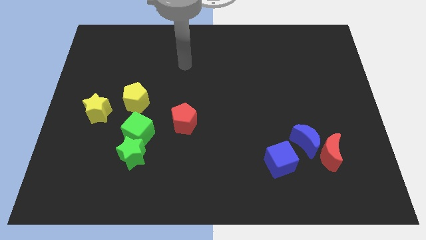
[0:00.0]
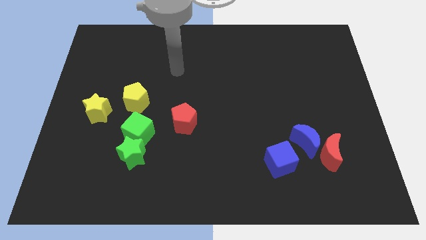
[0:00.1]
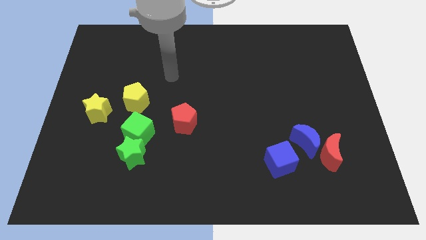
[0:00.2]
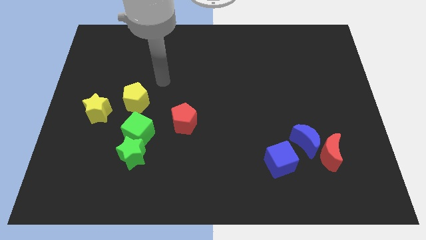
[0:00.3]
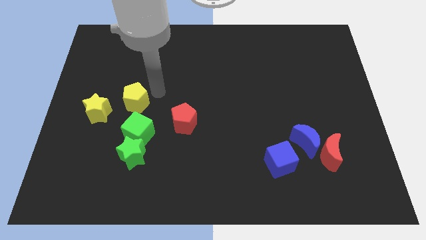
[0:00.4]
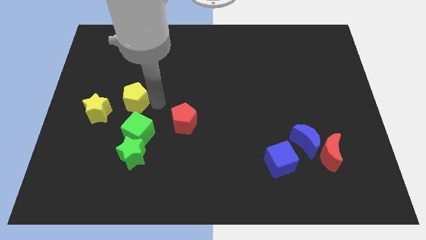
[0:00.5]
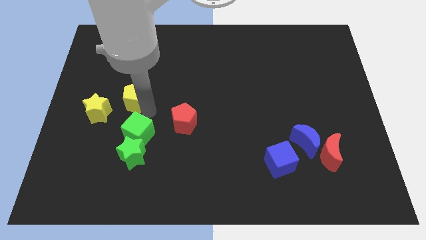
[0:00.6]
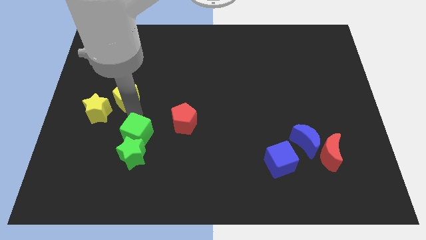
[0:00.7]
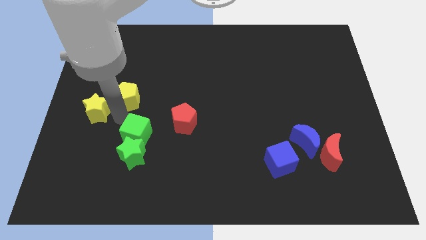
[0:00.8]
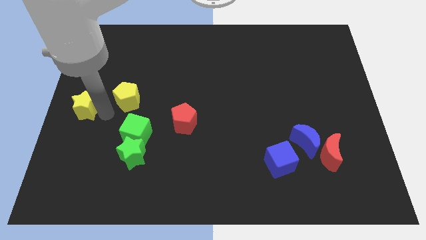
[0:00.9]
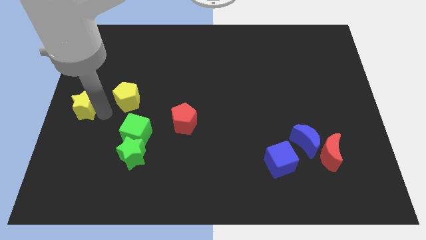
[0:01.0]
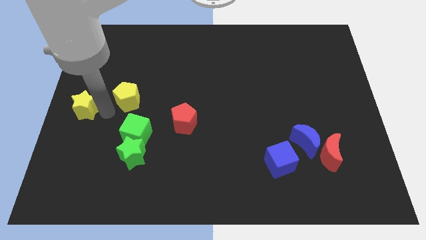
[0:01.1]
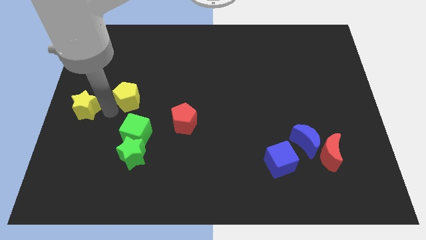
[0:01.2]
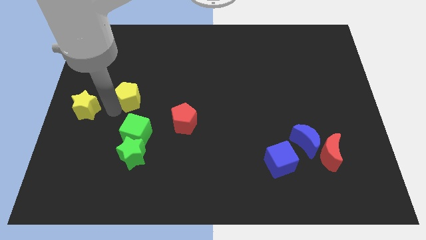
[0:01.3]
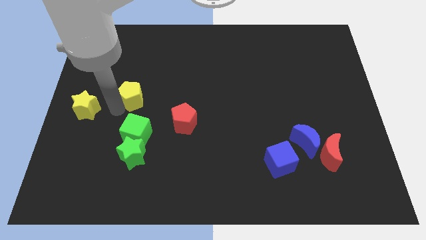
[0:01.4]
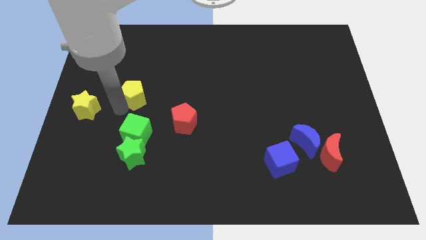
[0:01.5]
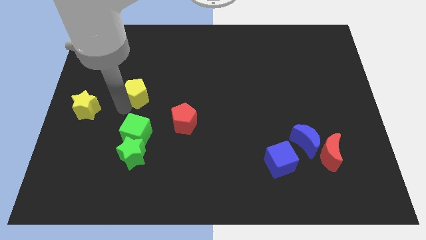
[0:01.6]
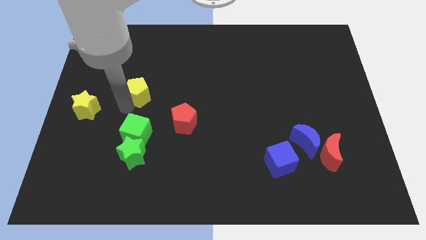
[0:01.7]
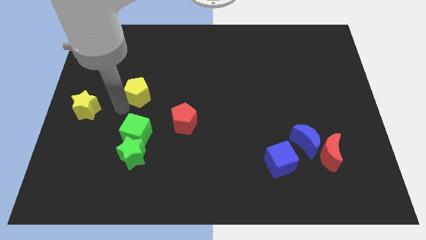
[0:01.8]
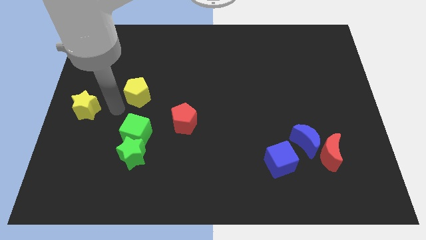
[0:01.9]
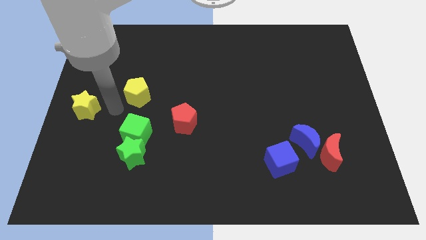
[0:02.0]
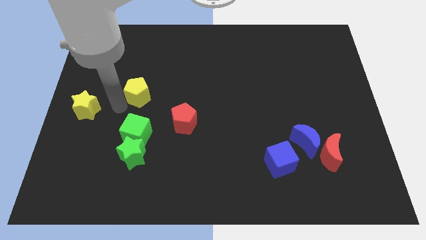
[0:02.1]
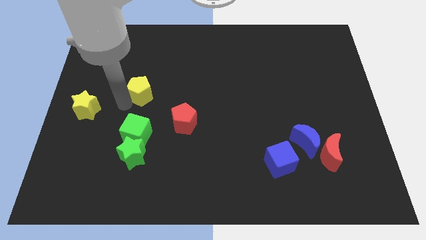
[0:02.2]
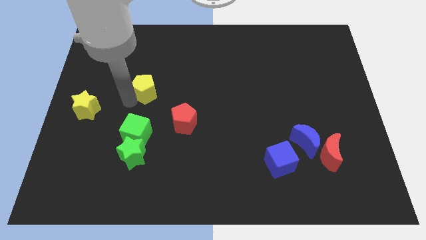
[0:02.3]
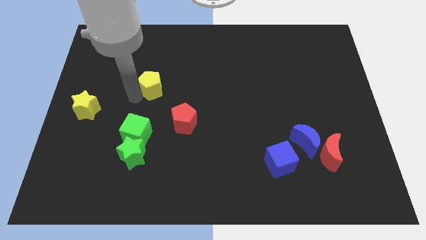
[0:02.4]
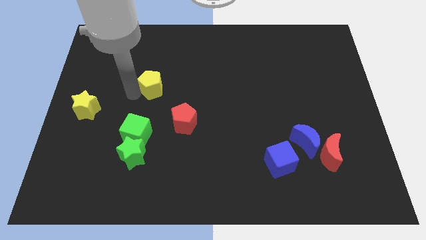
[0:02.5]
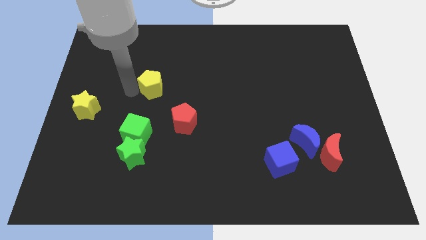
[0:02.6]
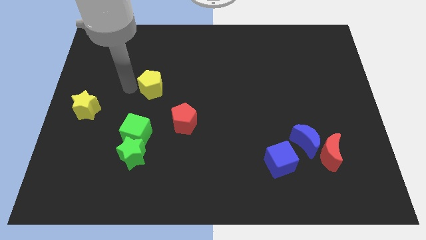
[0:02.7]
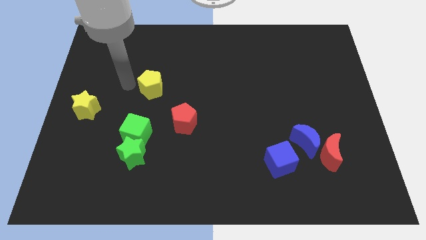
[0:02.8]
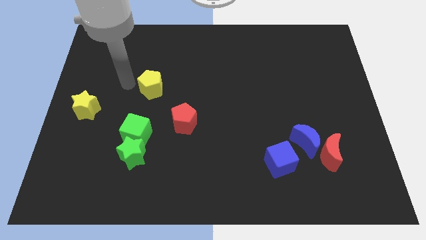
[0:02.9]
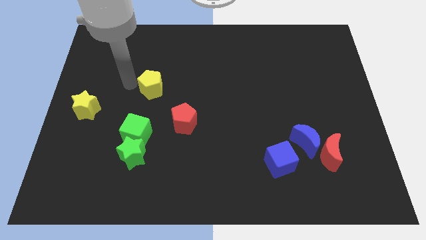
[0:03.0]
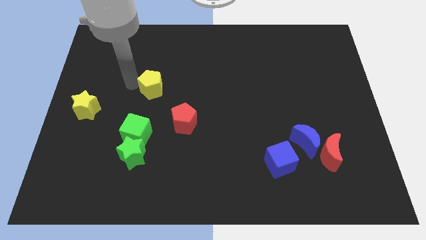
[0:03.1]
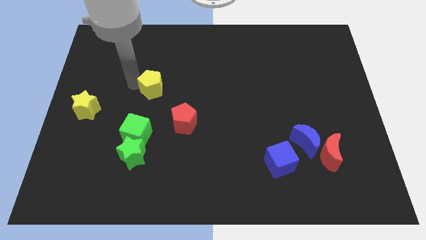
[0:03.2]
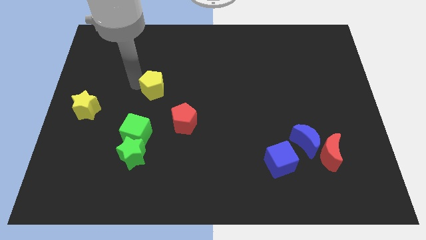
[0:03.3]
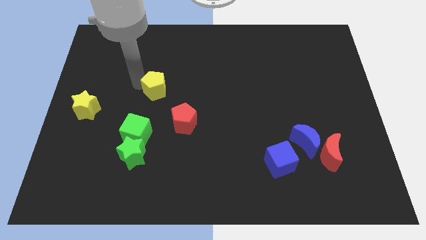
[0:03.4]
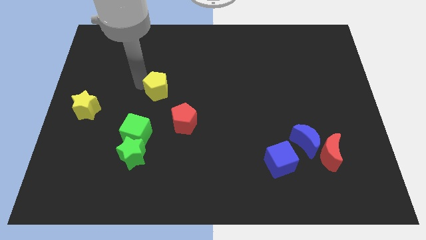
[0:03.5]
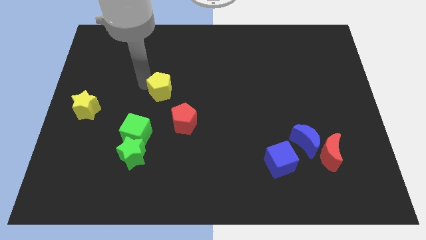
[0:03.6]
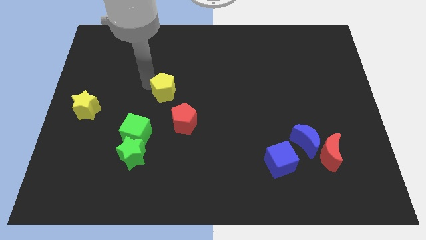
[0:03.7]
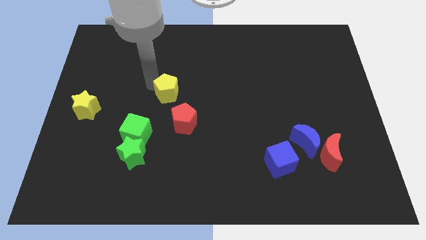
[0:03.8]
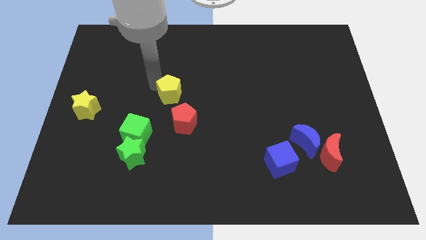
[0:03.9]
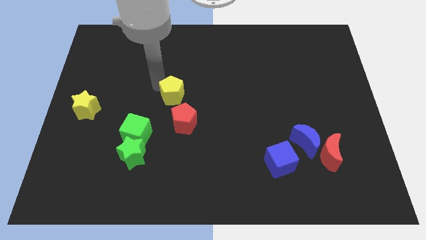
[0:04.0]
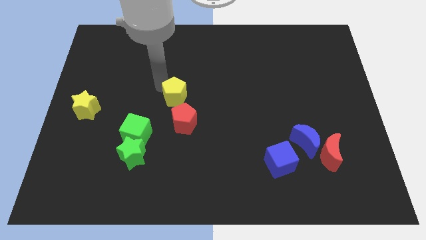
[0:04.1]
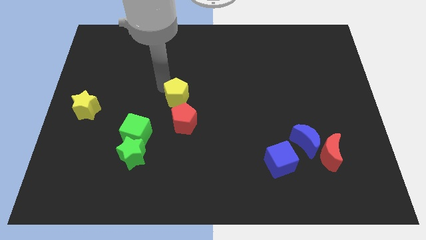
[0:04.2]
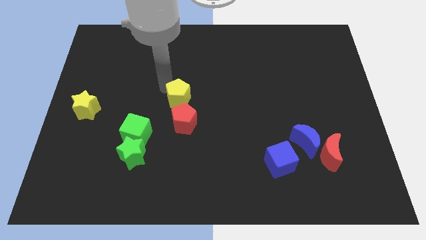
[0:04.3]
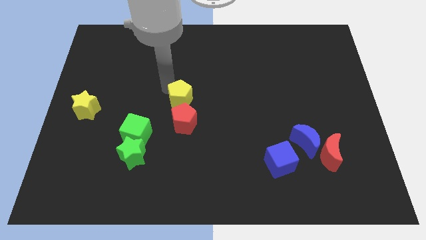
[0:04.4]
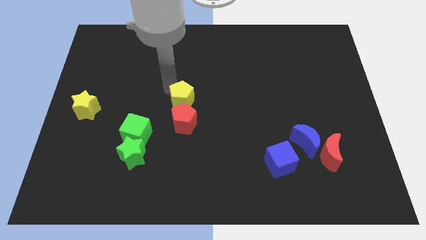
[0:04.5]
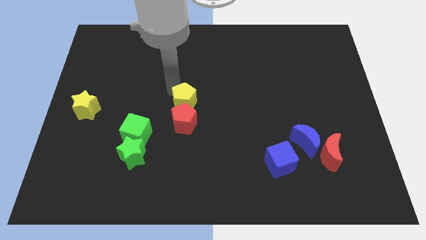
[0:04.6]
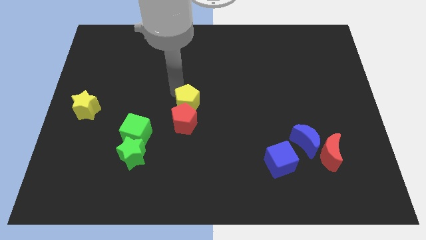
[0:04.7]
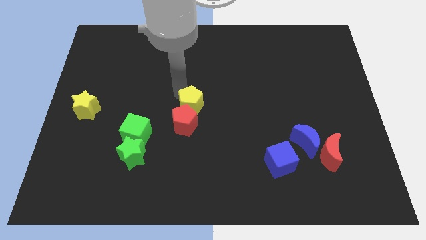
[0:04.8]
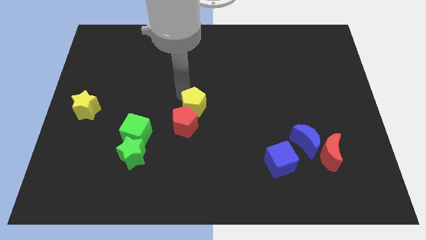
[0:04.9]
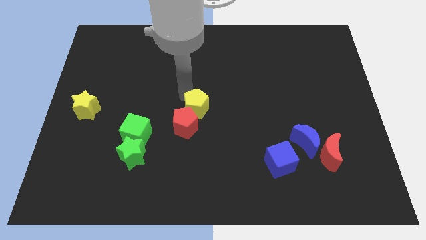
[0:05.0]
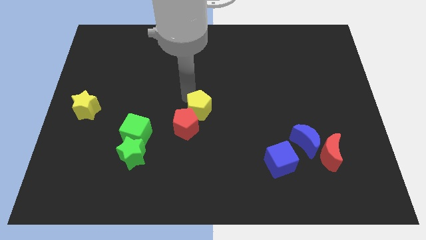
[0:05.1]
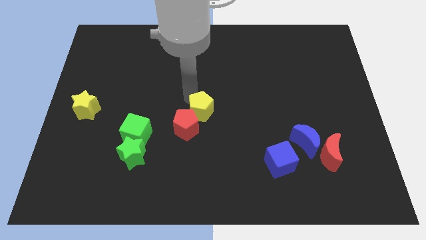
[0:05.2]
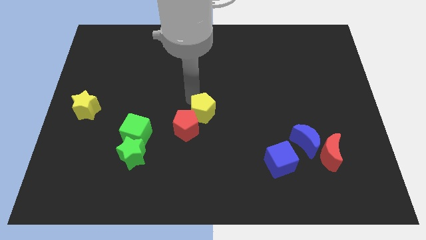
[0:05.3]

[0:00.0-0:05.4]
push the yellow pentagon to the right of the red pentagon

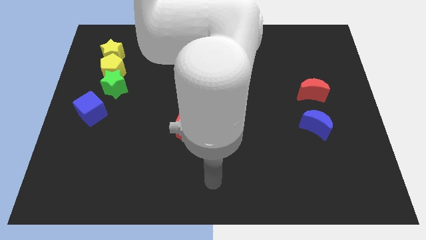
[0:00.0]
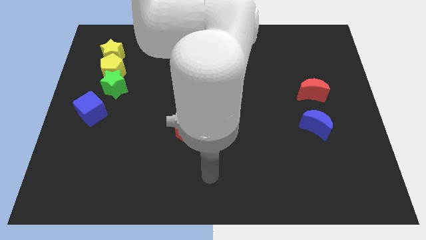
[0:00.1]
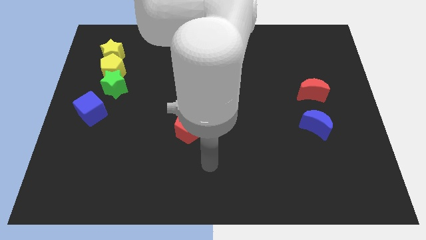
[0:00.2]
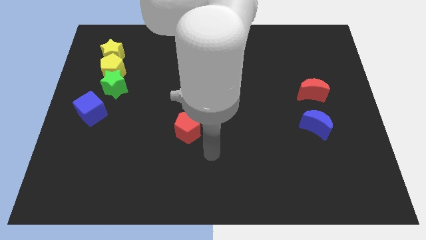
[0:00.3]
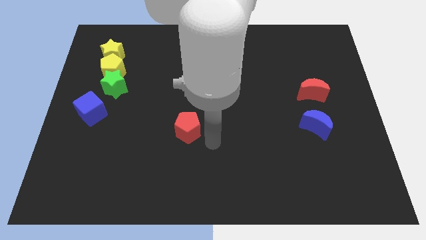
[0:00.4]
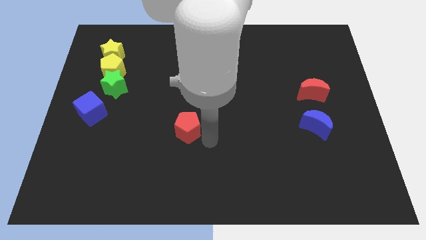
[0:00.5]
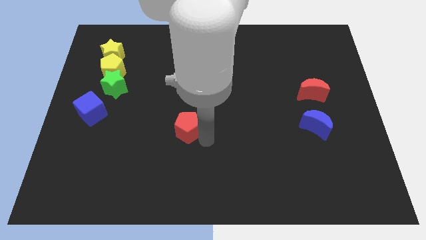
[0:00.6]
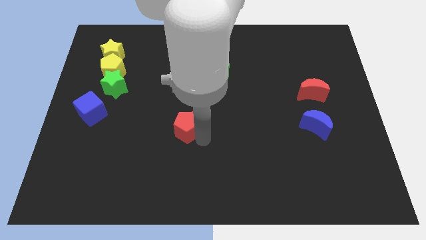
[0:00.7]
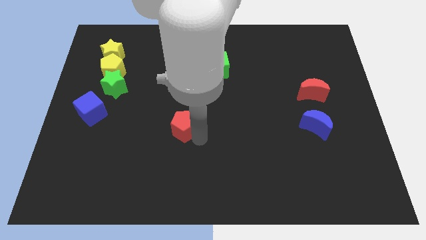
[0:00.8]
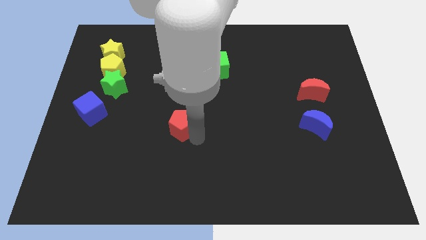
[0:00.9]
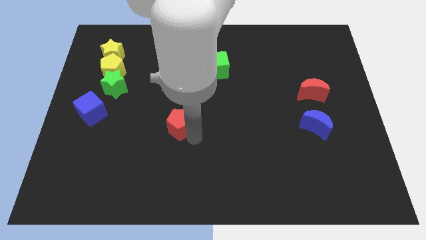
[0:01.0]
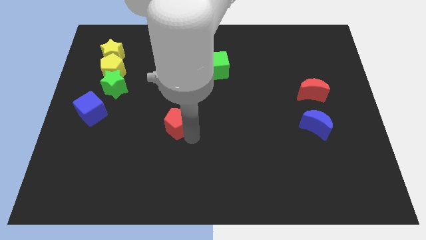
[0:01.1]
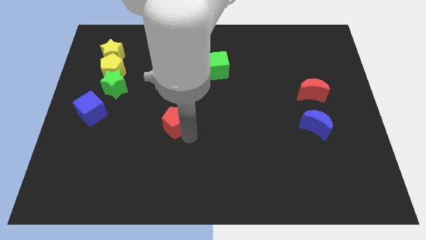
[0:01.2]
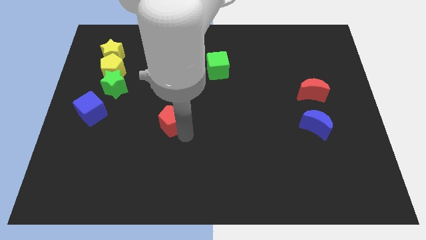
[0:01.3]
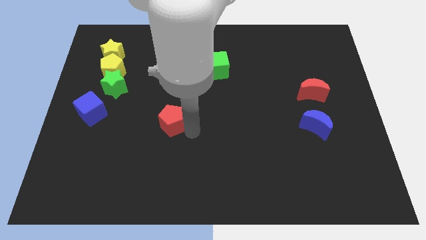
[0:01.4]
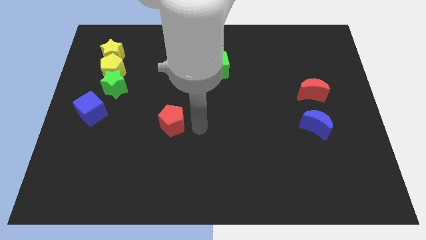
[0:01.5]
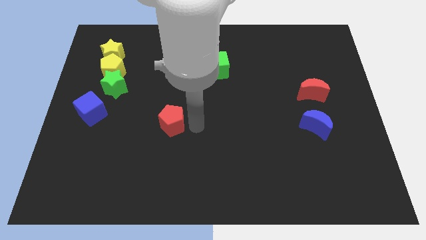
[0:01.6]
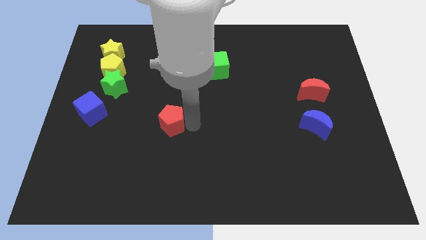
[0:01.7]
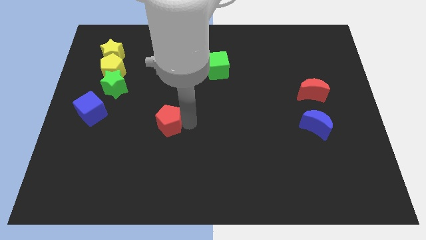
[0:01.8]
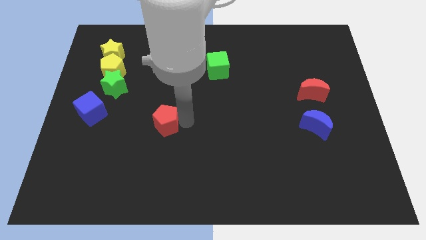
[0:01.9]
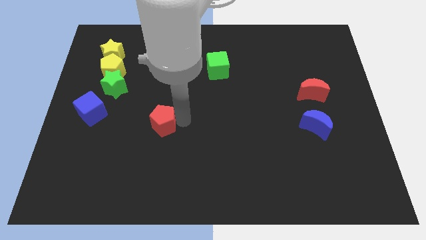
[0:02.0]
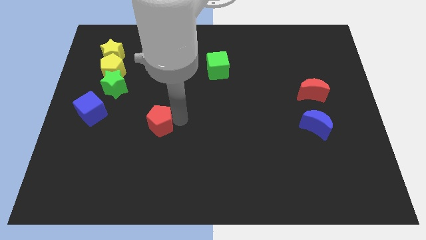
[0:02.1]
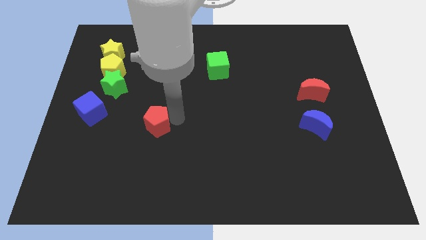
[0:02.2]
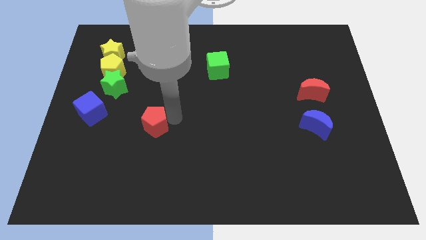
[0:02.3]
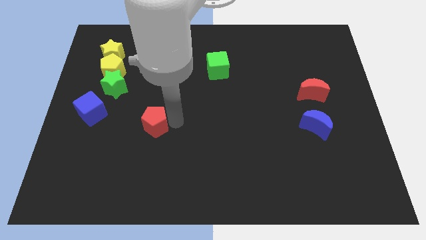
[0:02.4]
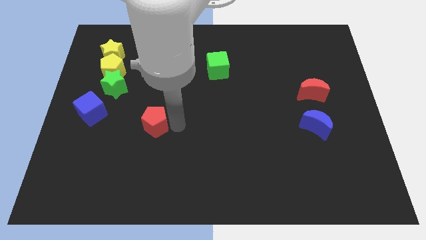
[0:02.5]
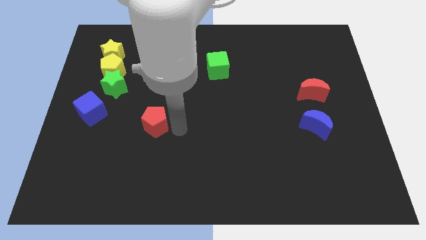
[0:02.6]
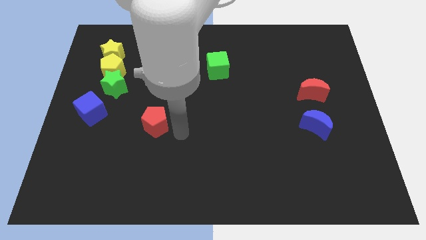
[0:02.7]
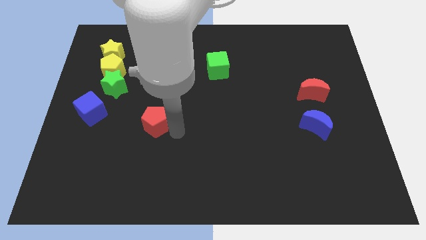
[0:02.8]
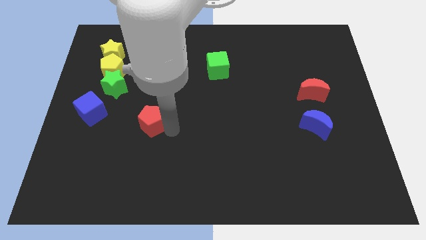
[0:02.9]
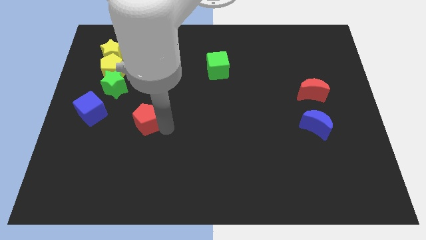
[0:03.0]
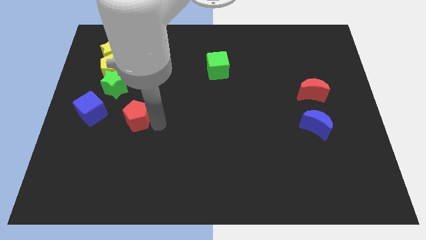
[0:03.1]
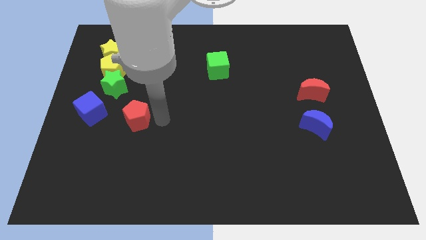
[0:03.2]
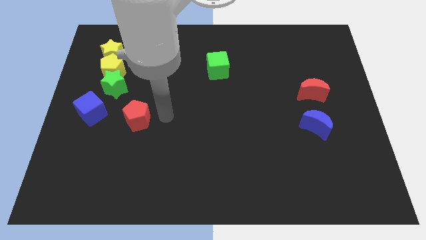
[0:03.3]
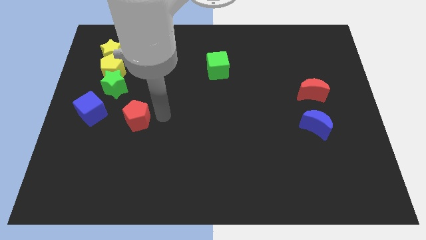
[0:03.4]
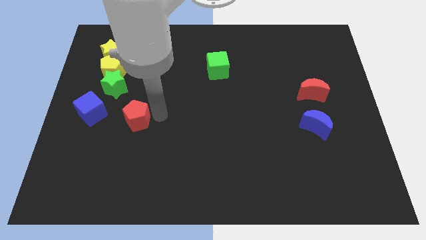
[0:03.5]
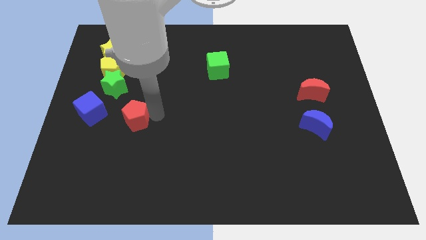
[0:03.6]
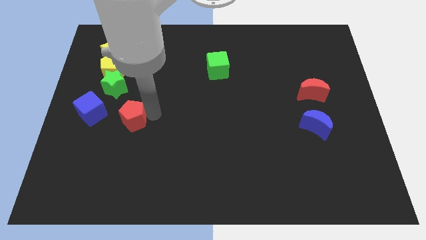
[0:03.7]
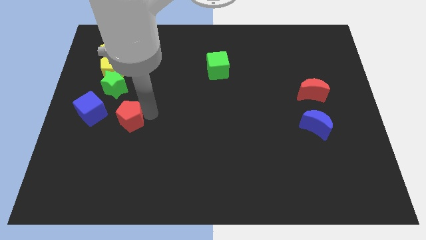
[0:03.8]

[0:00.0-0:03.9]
slide the red pentagon to the bottom of the green star
